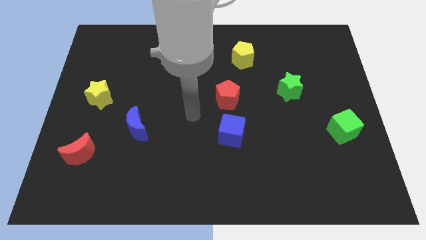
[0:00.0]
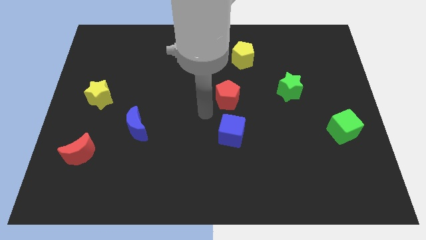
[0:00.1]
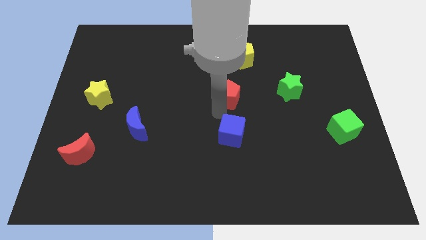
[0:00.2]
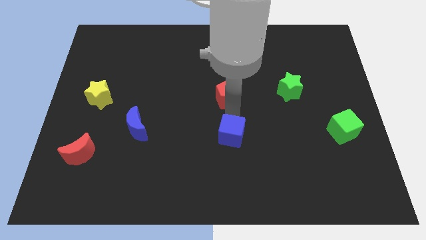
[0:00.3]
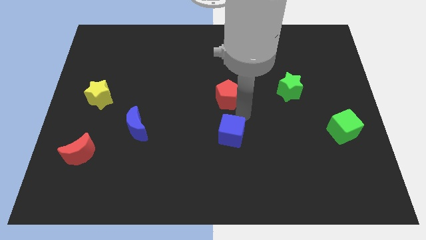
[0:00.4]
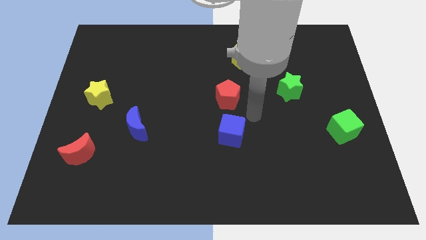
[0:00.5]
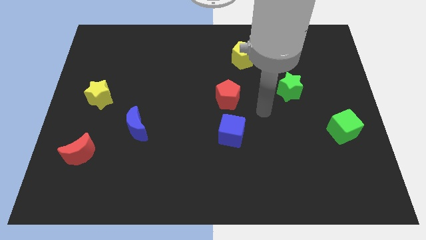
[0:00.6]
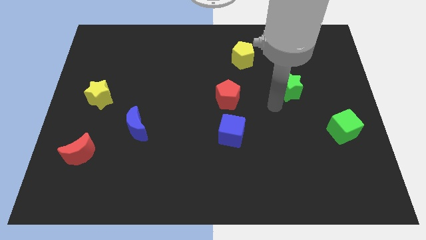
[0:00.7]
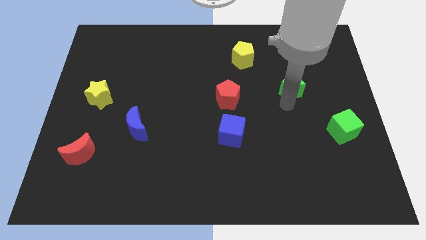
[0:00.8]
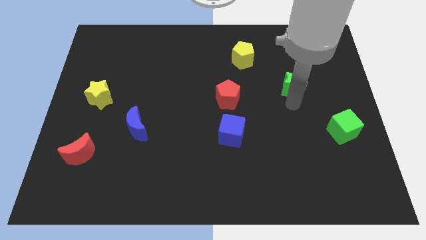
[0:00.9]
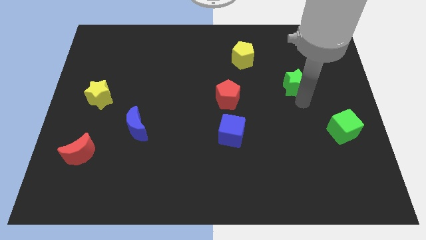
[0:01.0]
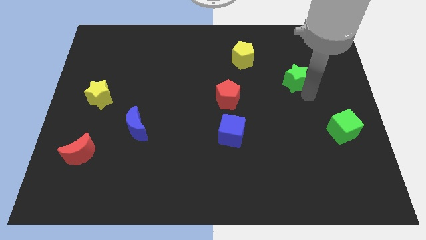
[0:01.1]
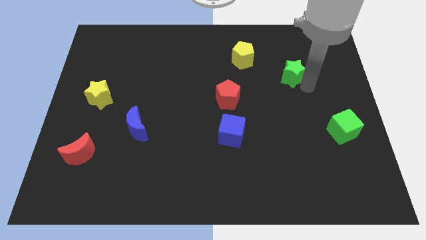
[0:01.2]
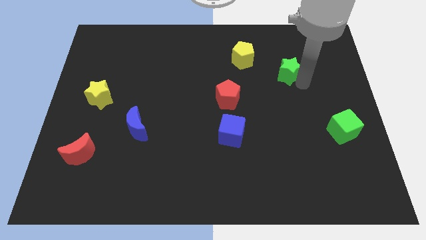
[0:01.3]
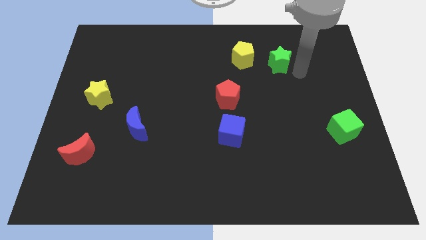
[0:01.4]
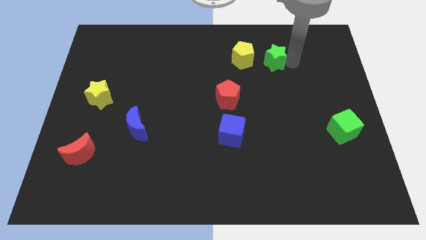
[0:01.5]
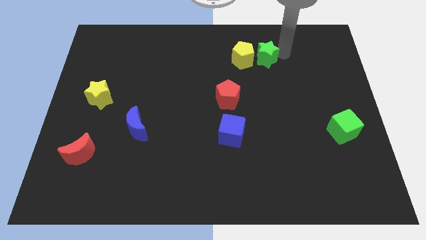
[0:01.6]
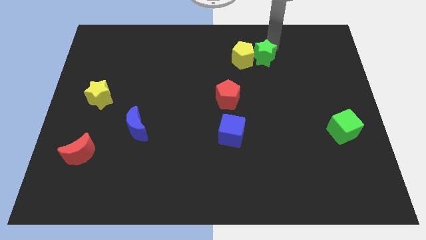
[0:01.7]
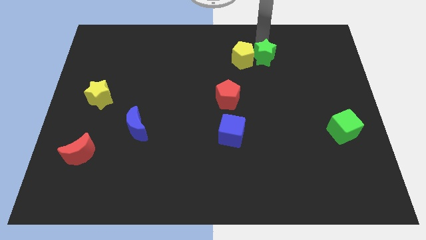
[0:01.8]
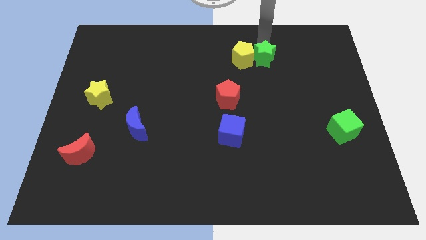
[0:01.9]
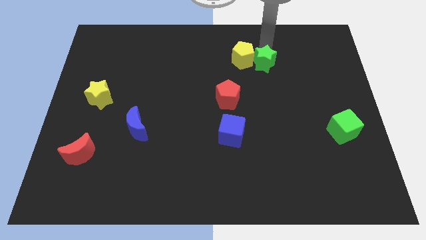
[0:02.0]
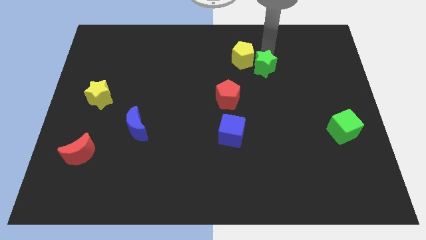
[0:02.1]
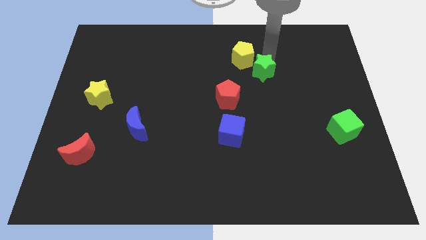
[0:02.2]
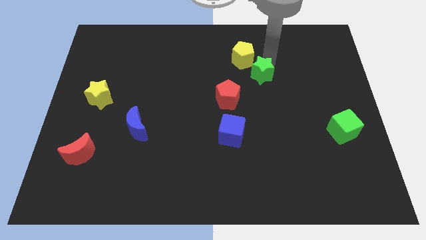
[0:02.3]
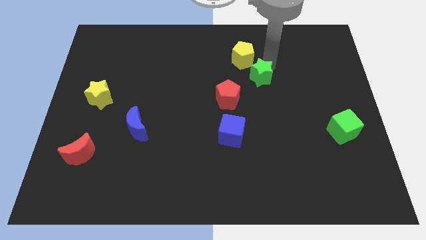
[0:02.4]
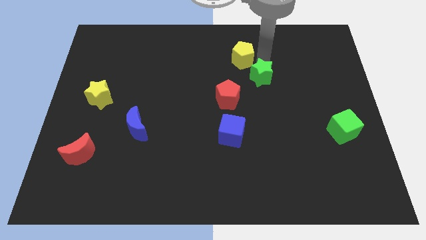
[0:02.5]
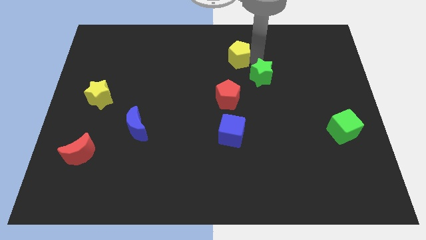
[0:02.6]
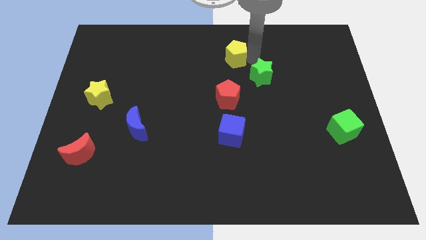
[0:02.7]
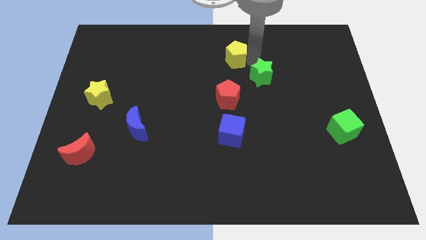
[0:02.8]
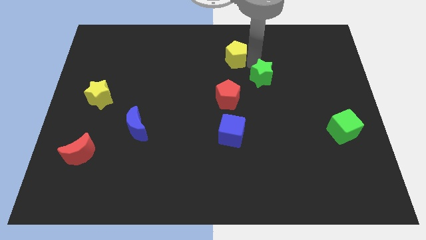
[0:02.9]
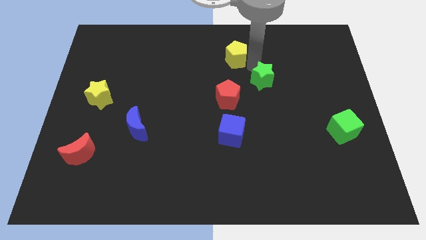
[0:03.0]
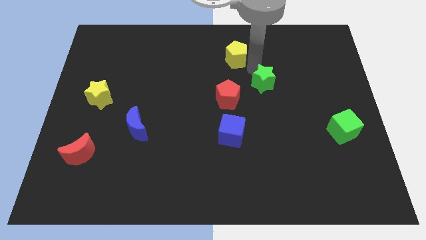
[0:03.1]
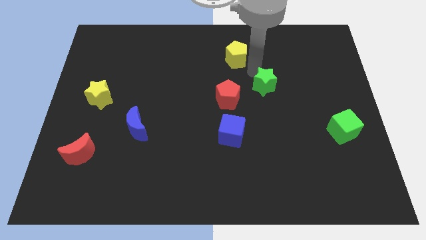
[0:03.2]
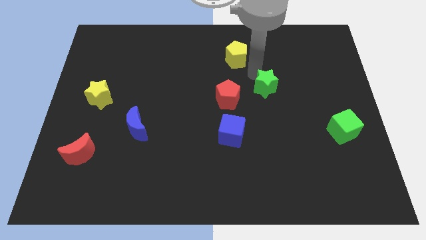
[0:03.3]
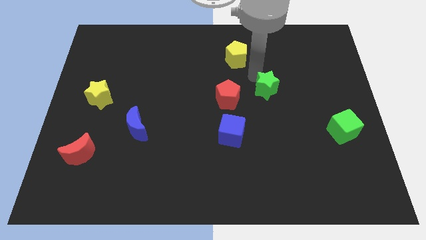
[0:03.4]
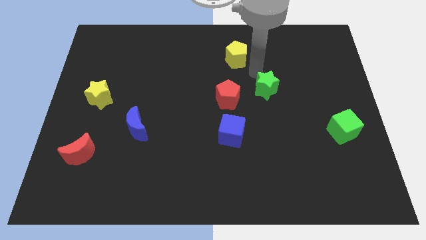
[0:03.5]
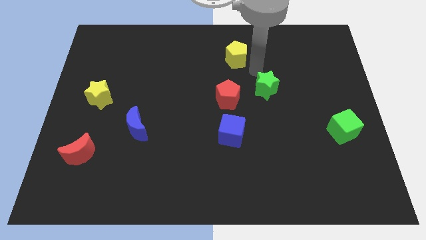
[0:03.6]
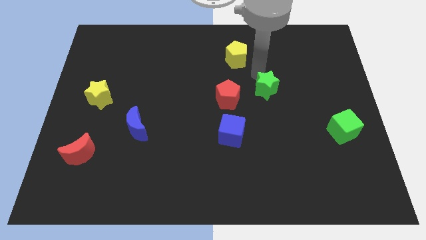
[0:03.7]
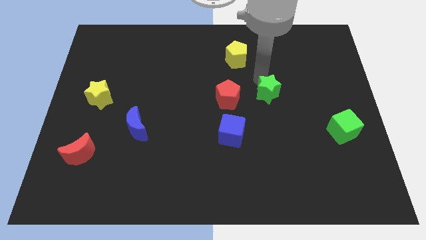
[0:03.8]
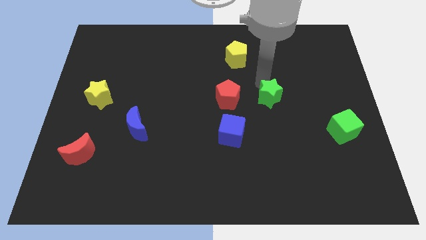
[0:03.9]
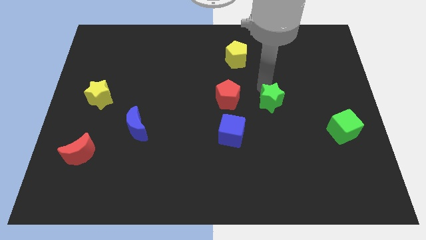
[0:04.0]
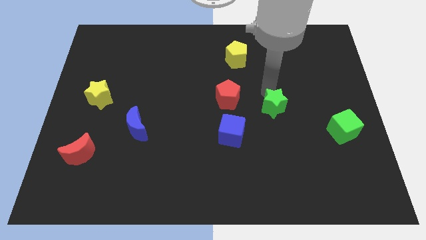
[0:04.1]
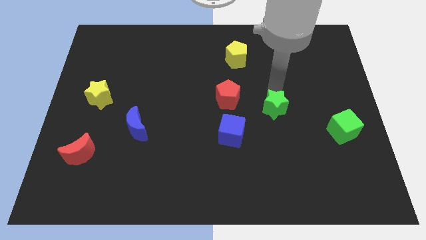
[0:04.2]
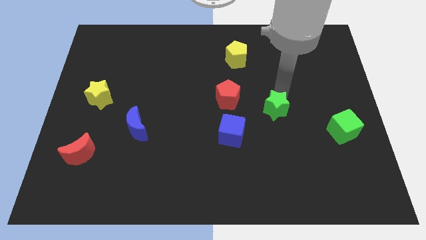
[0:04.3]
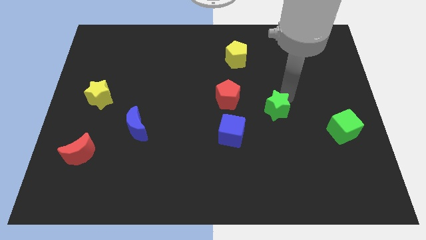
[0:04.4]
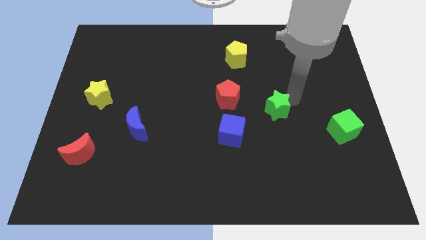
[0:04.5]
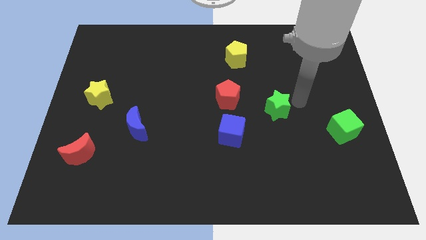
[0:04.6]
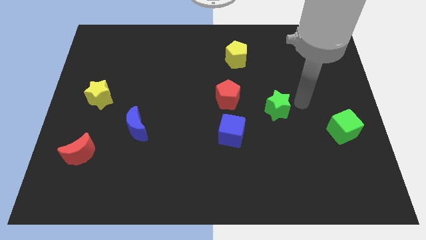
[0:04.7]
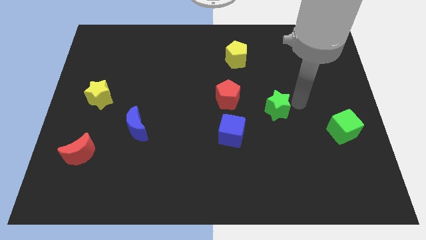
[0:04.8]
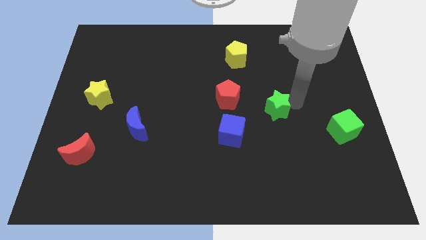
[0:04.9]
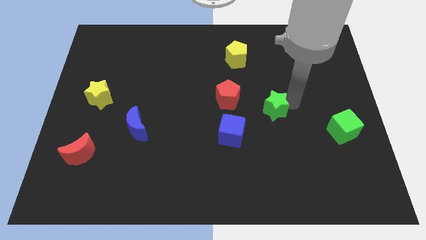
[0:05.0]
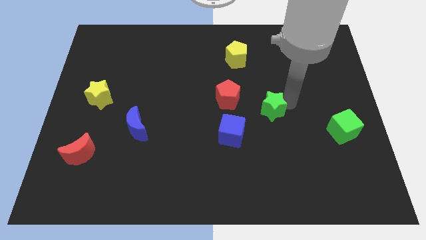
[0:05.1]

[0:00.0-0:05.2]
move the green star to the bottom right side of the red pentagon

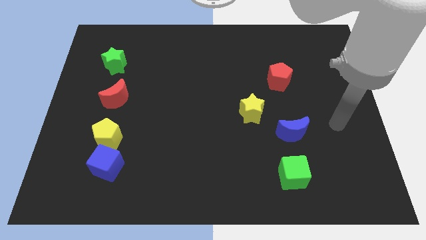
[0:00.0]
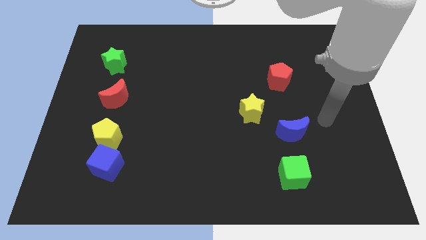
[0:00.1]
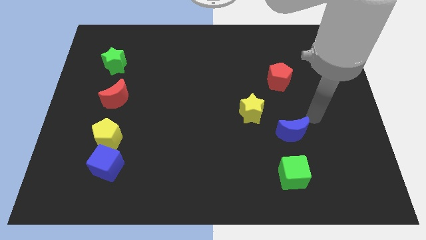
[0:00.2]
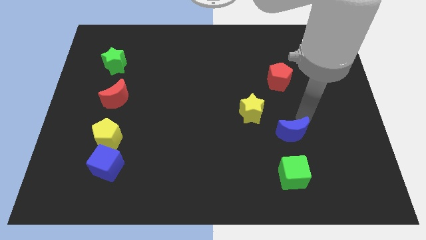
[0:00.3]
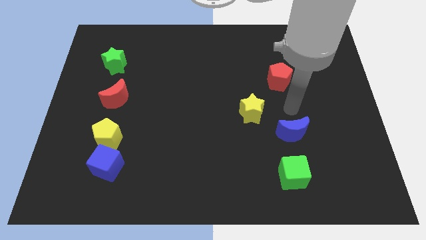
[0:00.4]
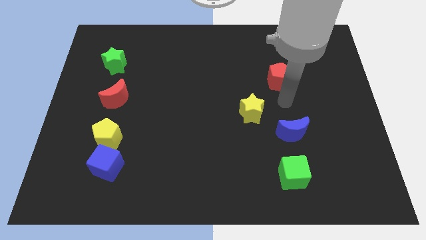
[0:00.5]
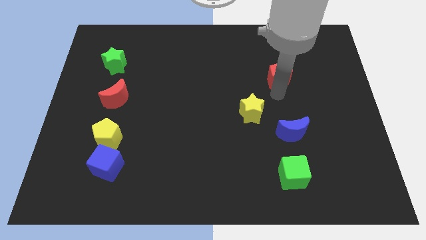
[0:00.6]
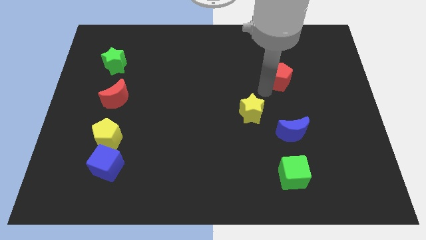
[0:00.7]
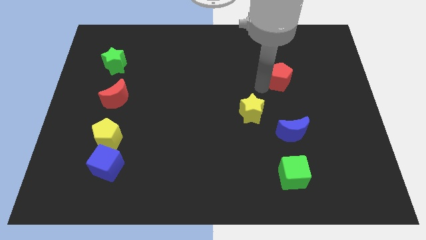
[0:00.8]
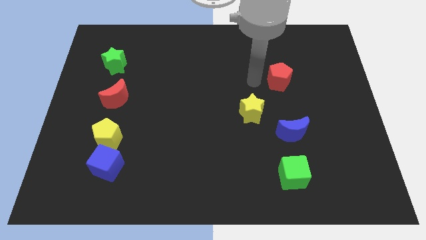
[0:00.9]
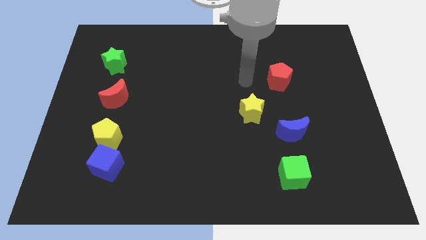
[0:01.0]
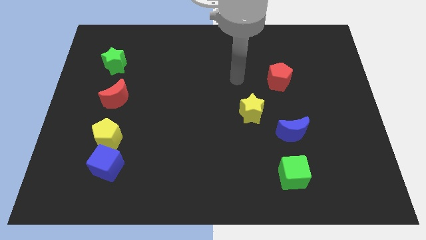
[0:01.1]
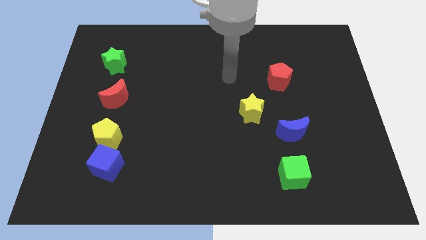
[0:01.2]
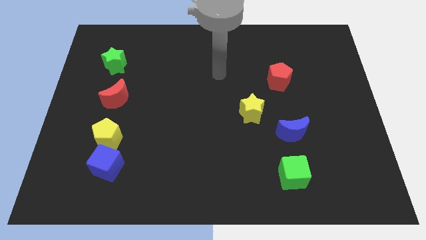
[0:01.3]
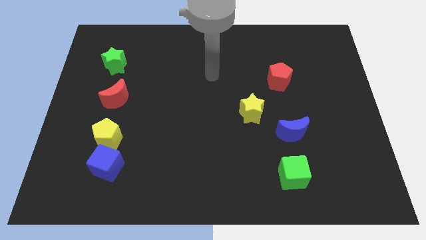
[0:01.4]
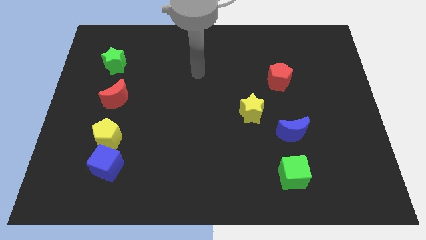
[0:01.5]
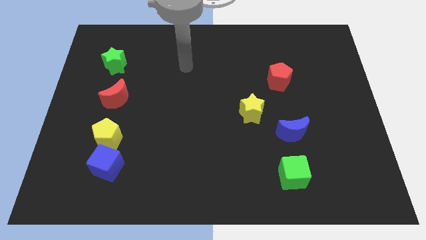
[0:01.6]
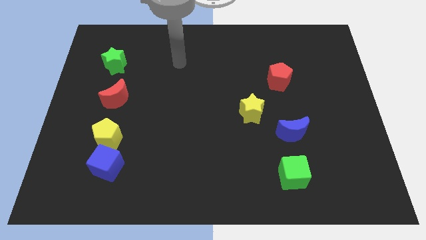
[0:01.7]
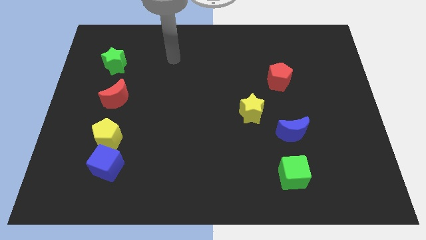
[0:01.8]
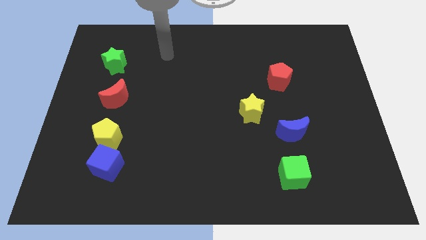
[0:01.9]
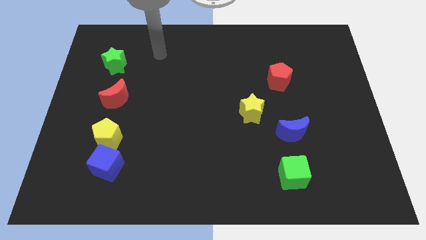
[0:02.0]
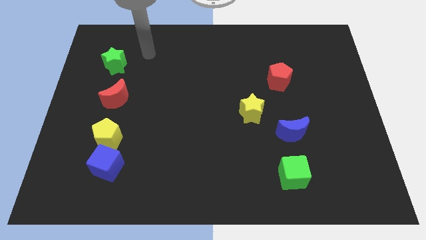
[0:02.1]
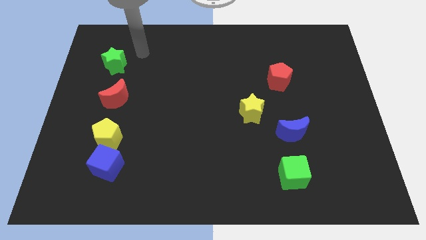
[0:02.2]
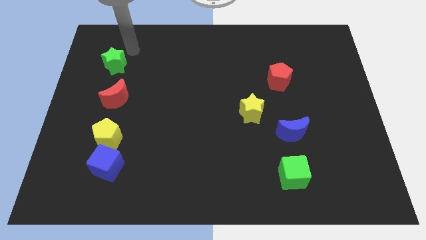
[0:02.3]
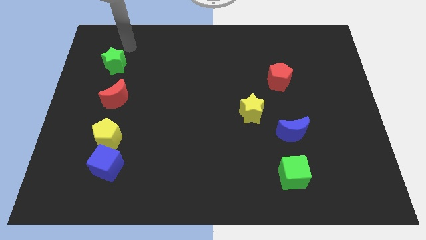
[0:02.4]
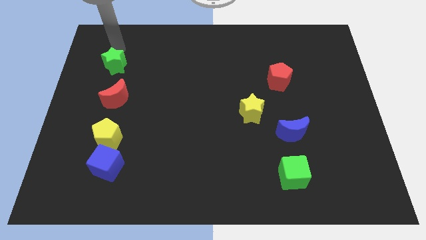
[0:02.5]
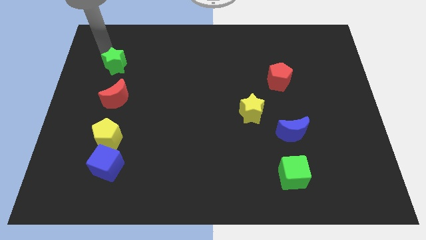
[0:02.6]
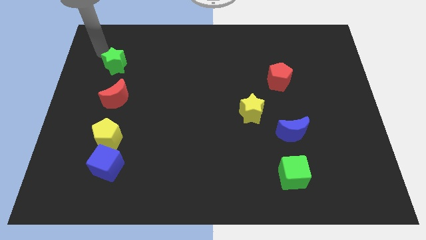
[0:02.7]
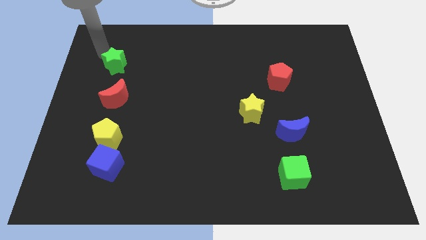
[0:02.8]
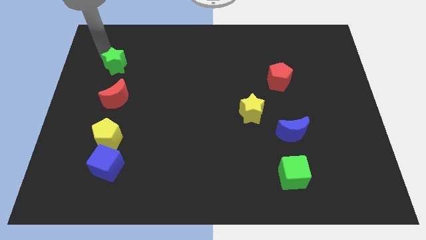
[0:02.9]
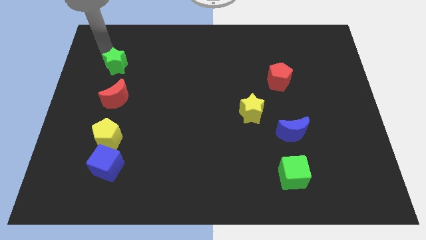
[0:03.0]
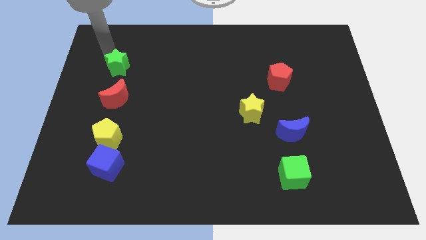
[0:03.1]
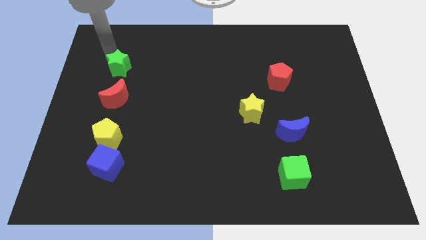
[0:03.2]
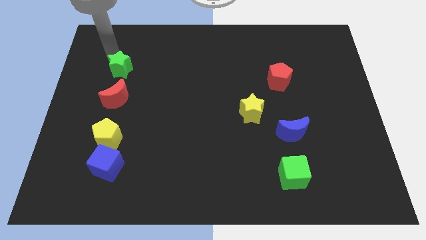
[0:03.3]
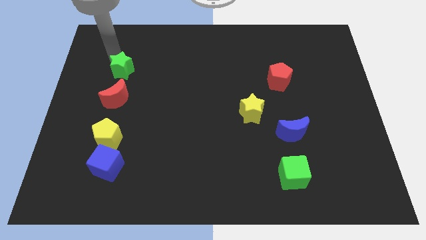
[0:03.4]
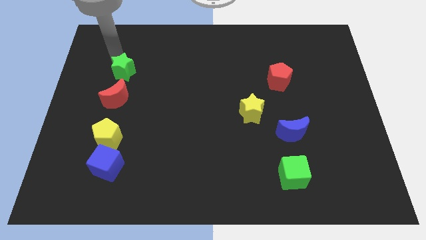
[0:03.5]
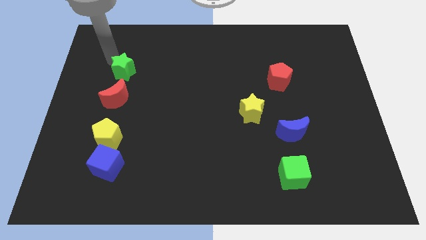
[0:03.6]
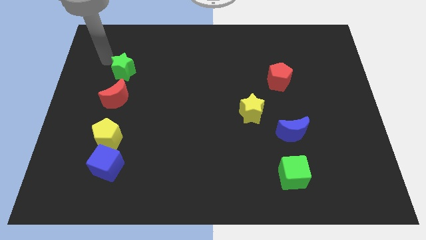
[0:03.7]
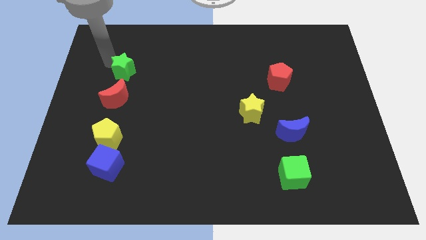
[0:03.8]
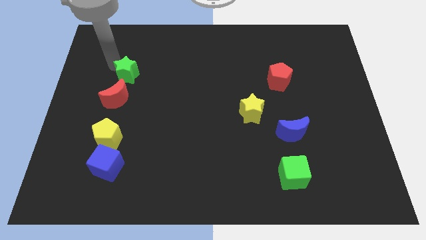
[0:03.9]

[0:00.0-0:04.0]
put the green star diagonally up and to the right of the red moon
